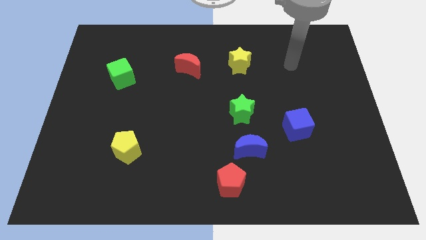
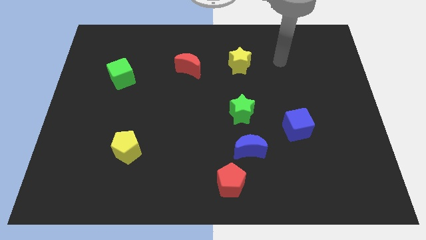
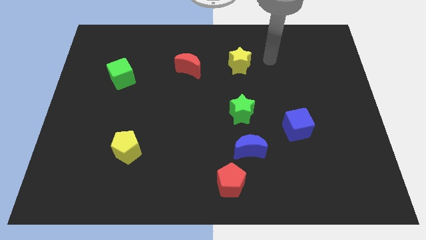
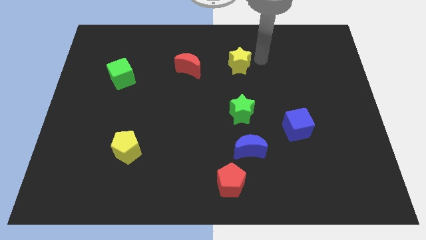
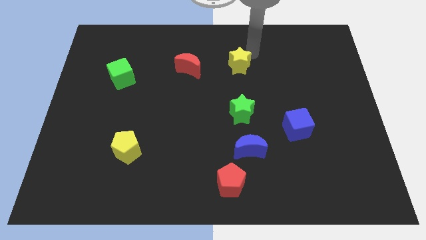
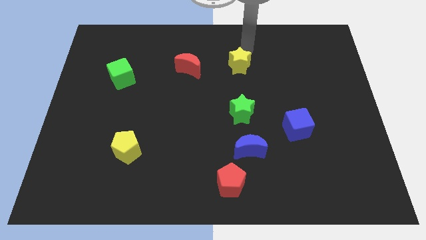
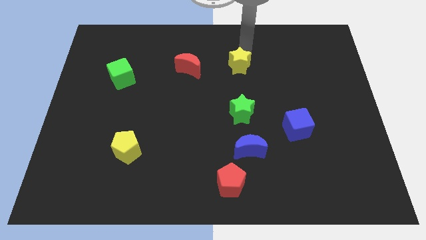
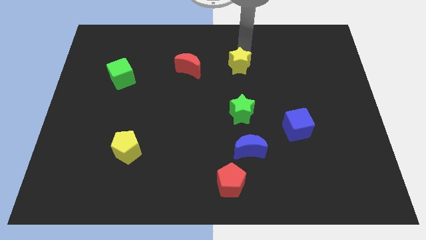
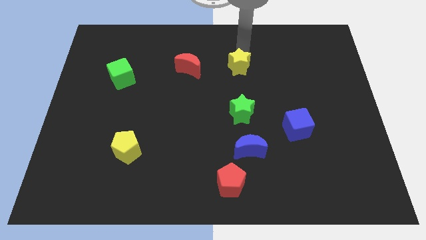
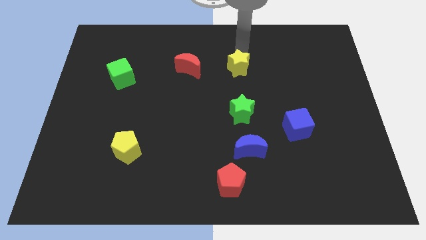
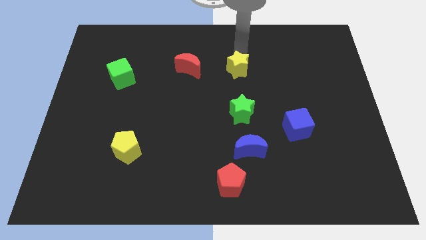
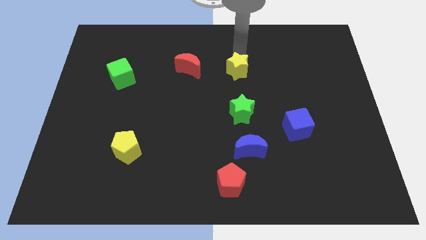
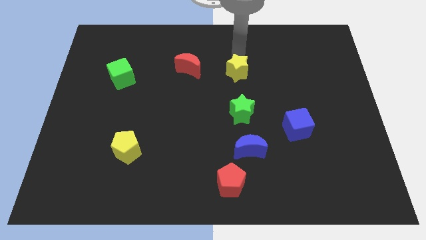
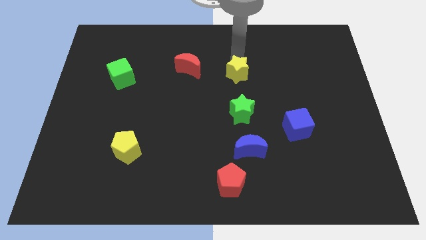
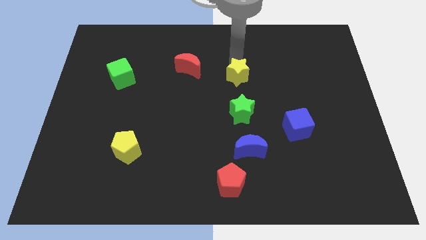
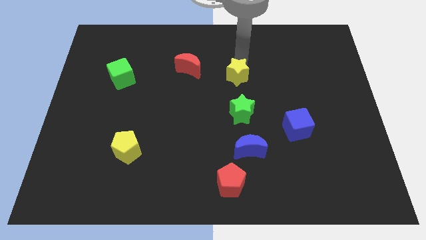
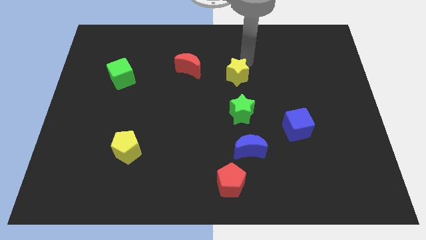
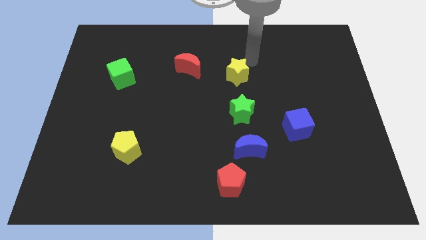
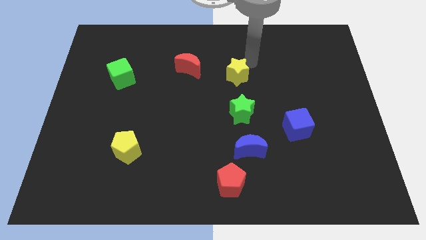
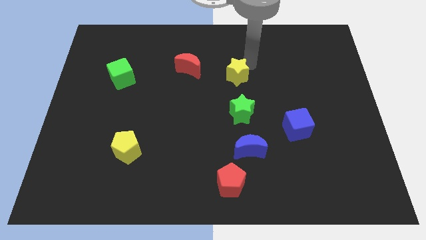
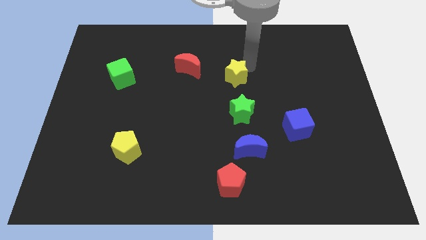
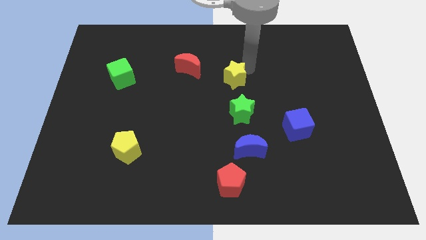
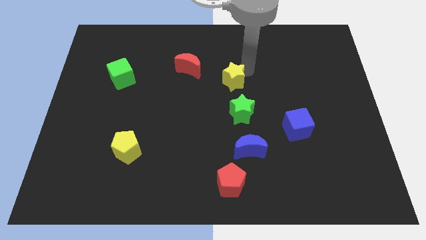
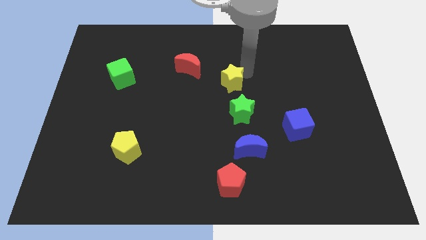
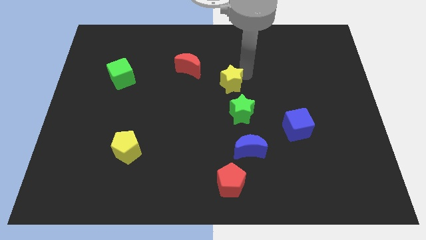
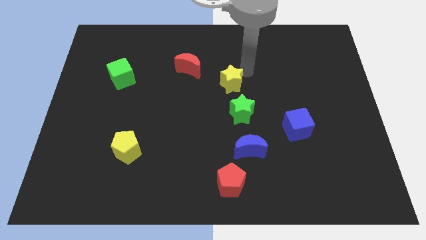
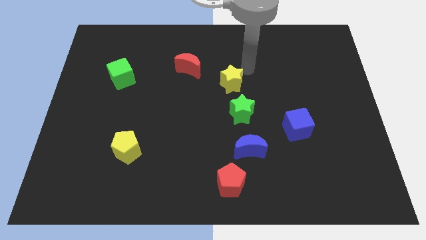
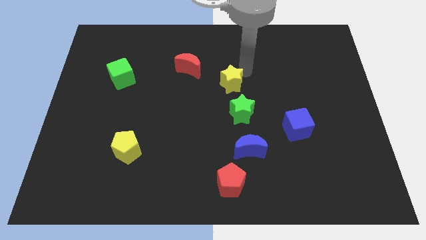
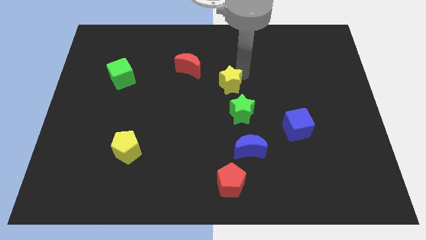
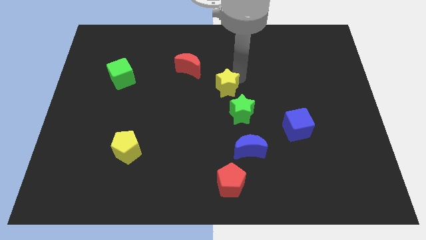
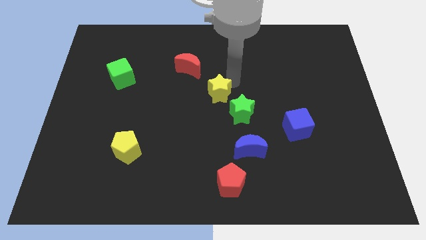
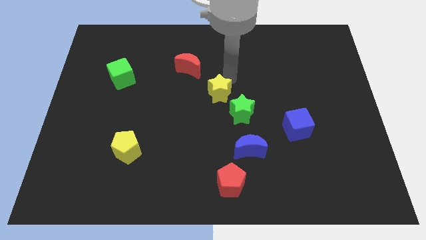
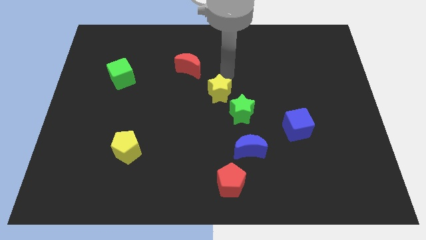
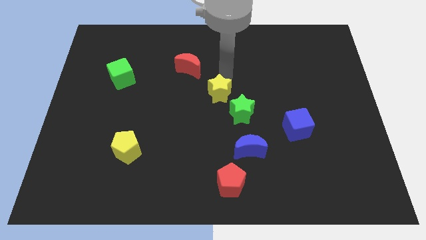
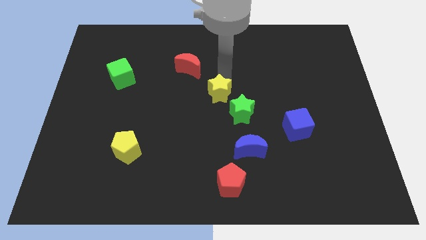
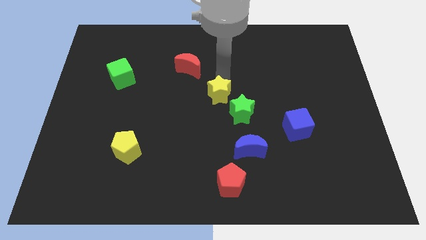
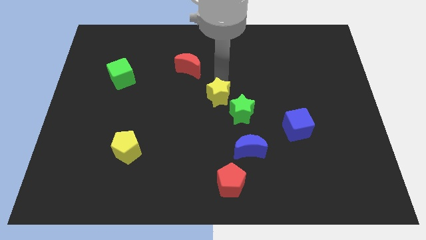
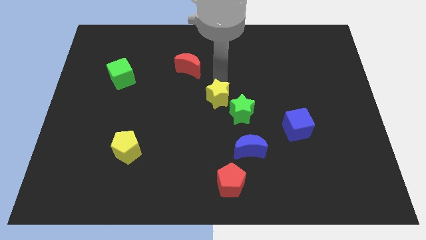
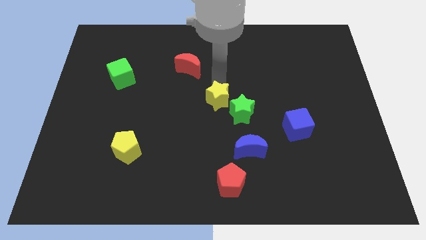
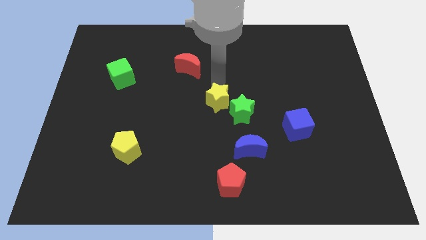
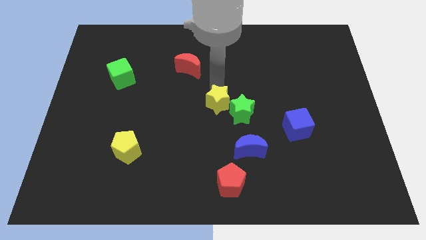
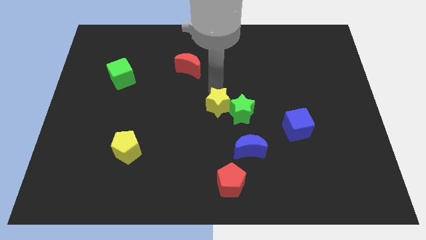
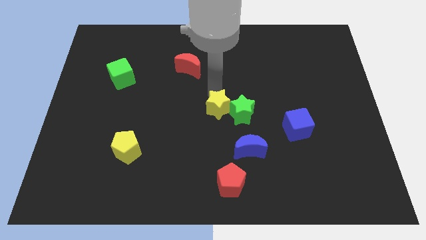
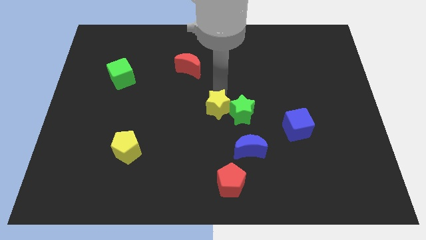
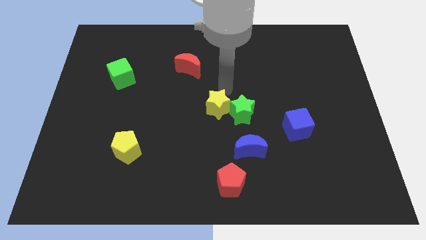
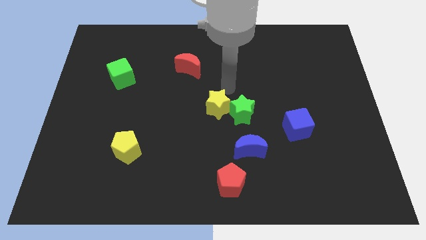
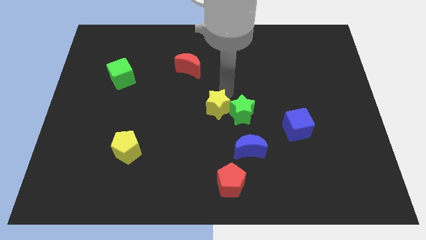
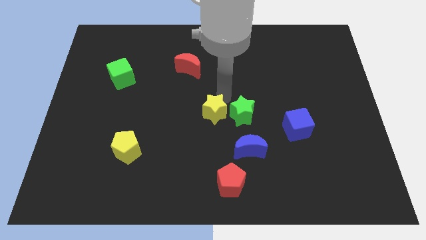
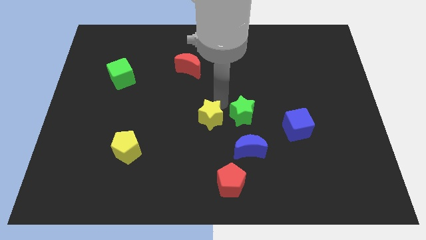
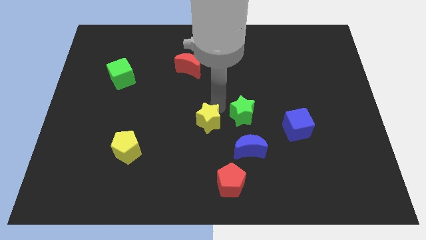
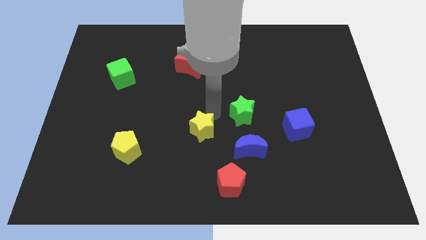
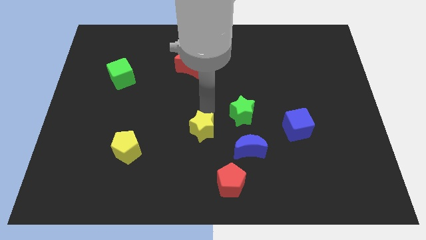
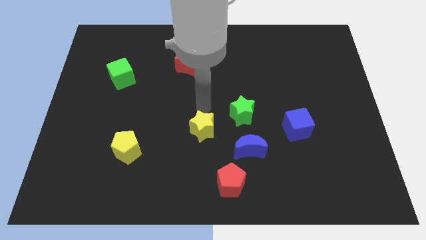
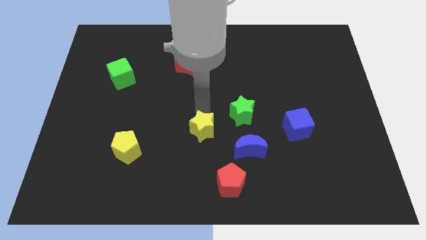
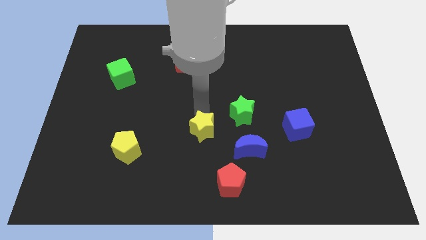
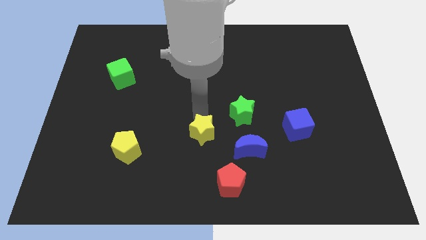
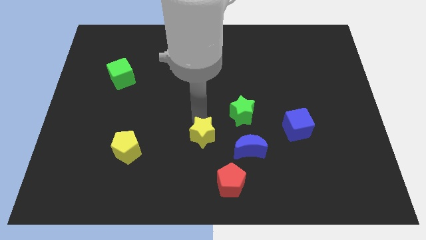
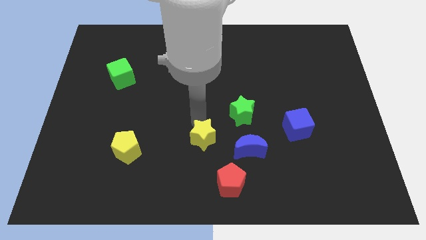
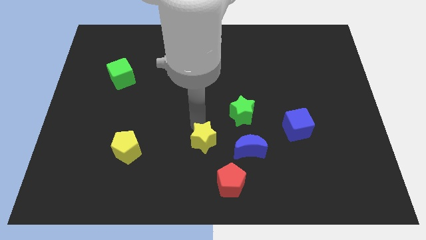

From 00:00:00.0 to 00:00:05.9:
push the yellow star to the top left side of the red pentagon

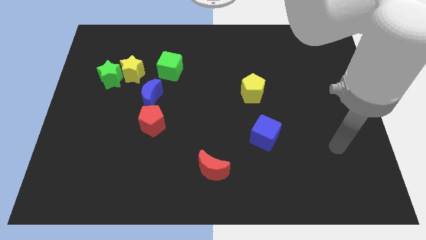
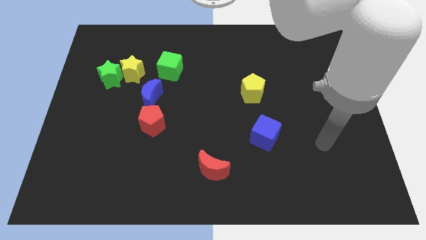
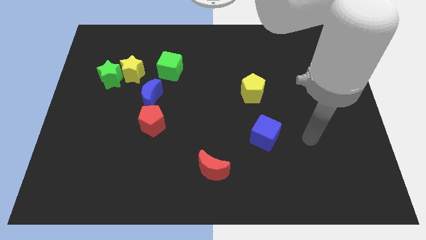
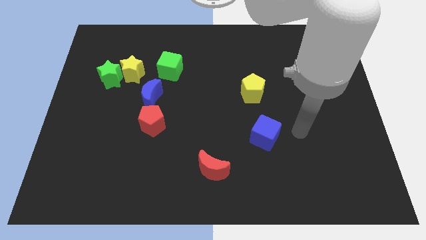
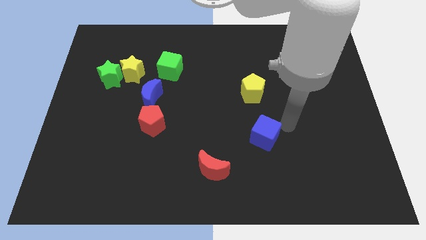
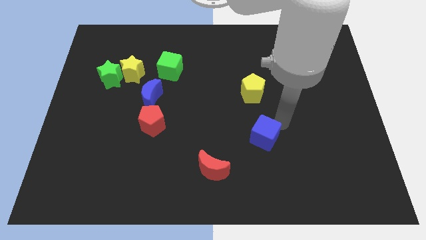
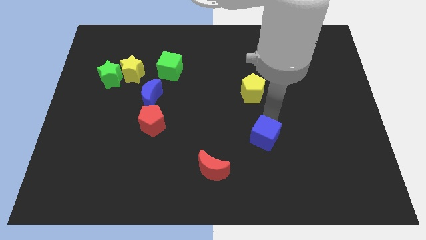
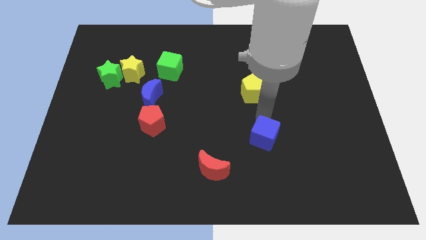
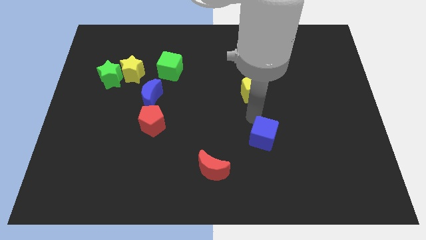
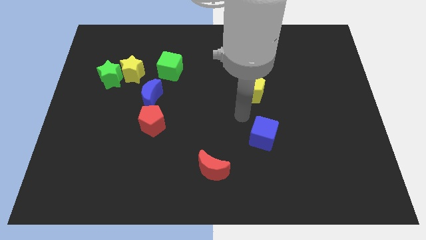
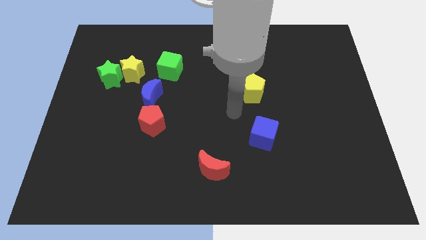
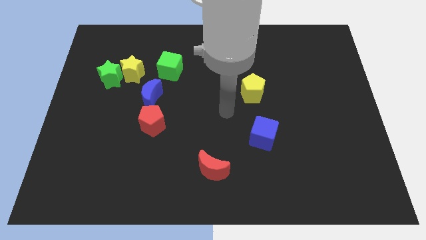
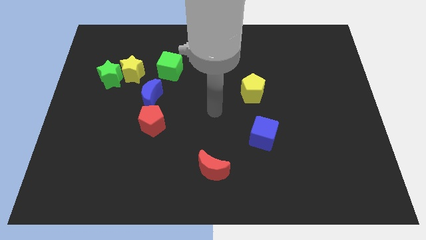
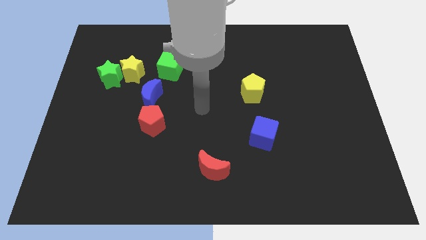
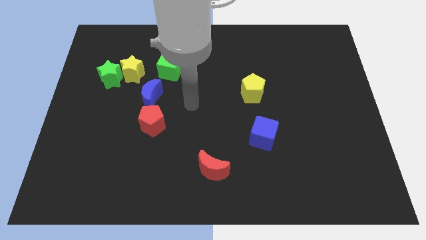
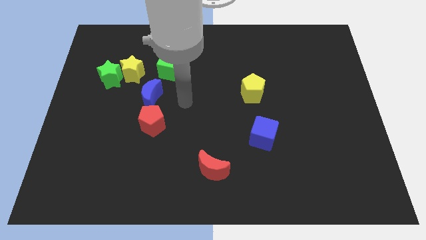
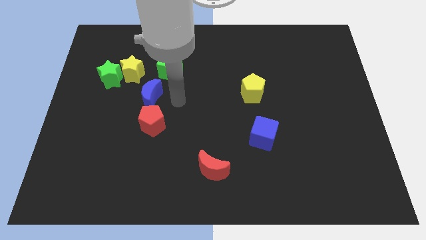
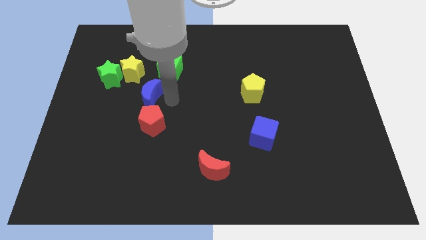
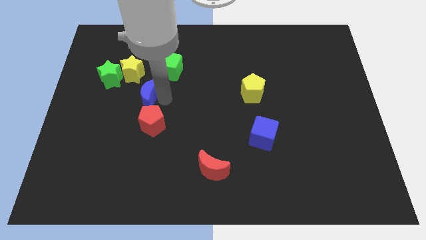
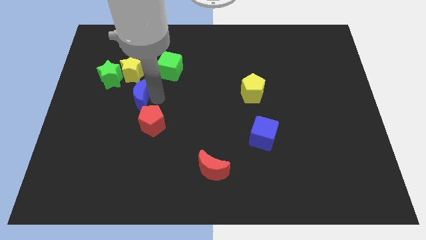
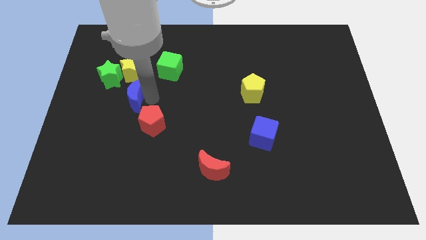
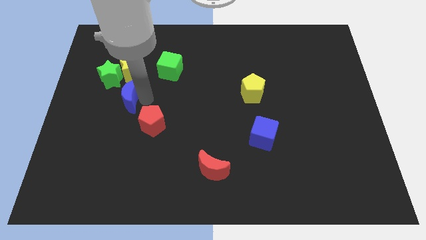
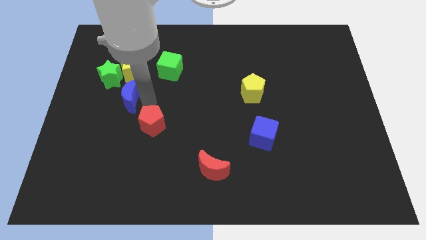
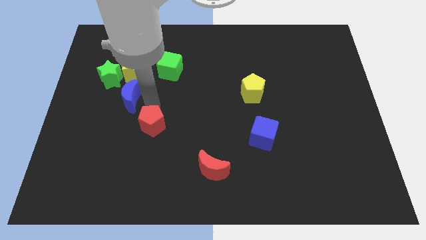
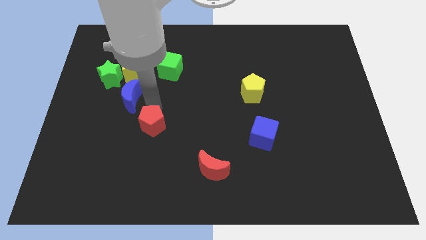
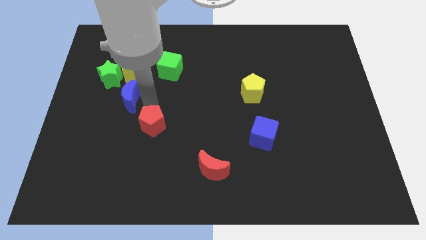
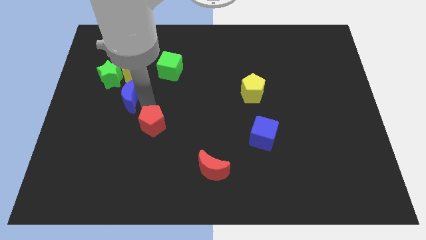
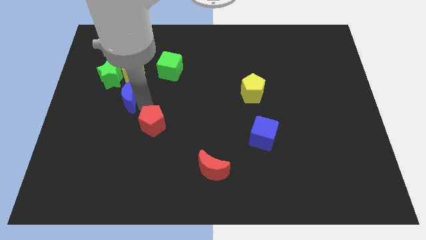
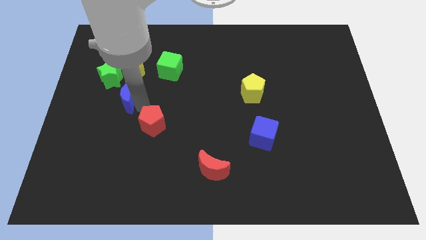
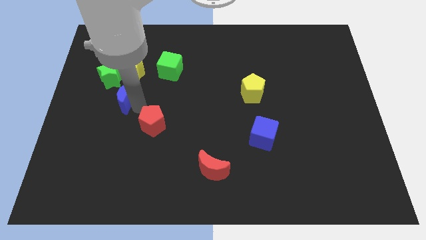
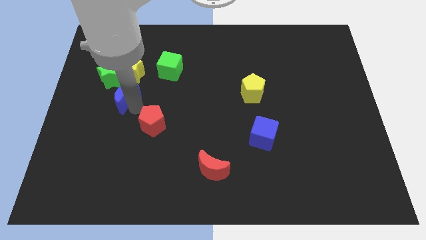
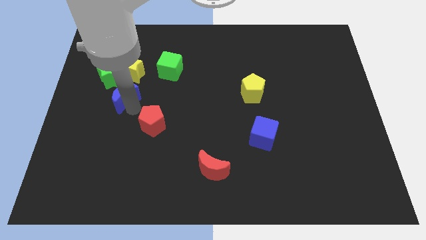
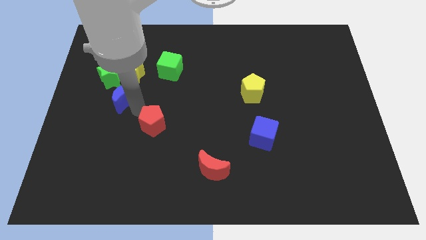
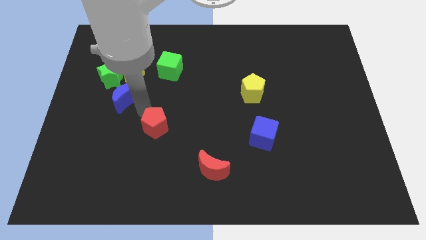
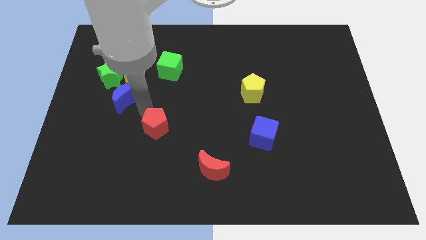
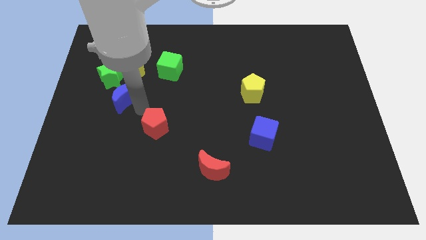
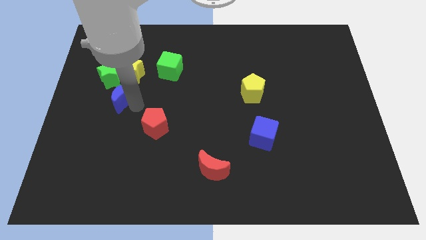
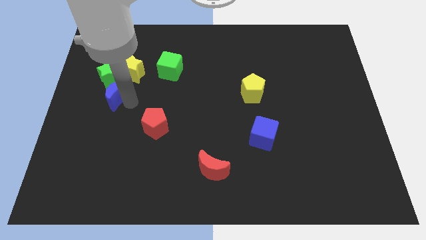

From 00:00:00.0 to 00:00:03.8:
slide the blue moon to the bottom left side of the yellow star
